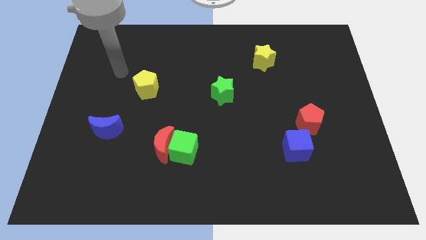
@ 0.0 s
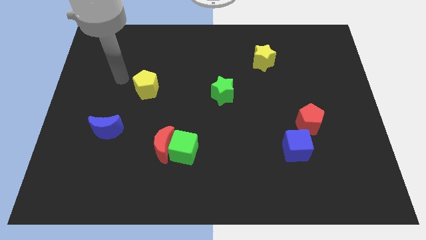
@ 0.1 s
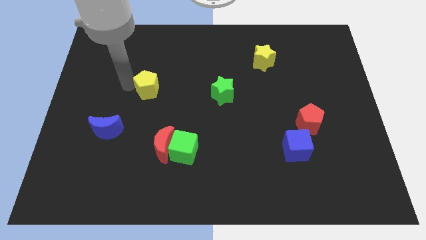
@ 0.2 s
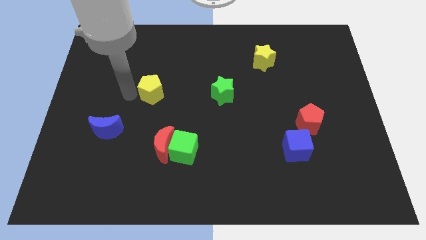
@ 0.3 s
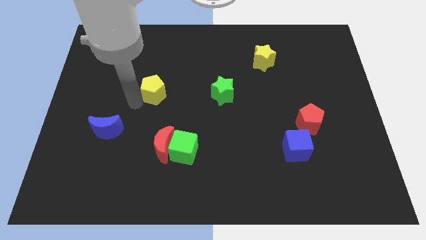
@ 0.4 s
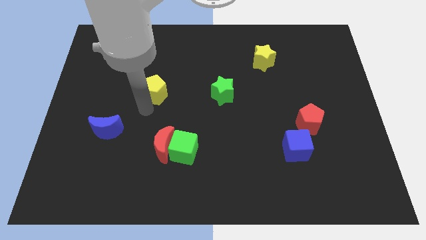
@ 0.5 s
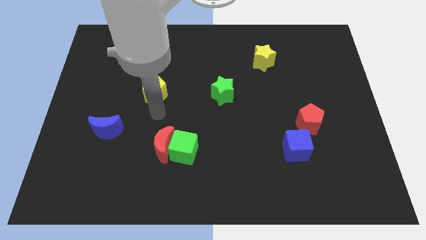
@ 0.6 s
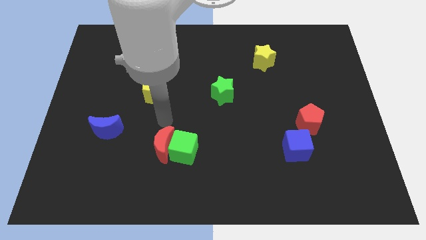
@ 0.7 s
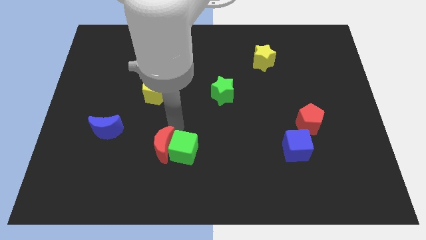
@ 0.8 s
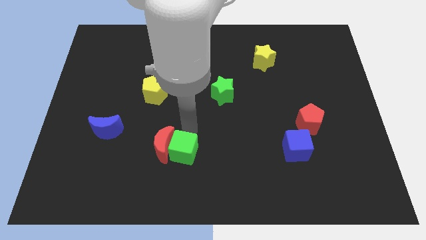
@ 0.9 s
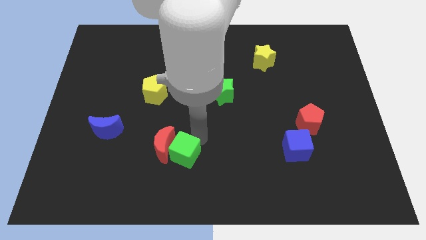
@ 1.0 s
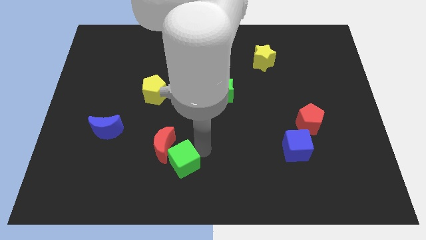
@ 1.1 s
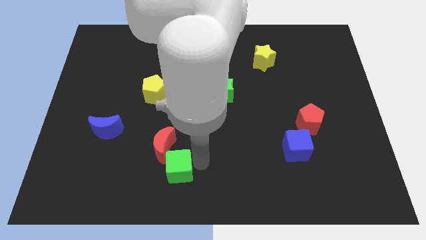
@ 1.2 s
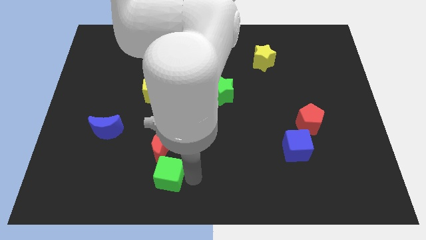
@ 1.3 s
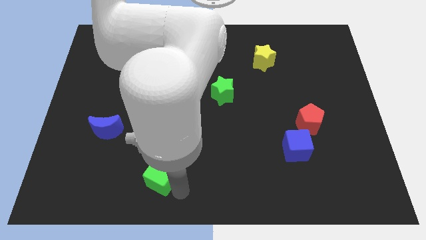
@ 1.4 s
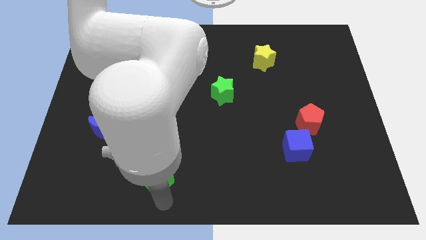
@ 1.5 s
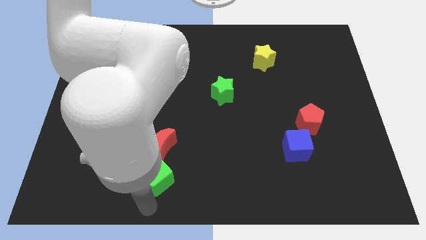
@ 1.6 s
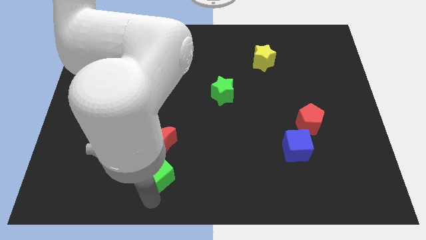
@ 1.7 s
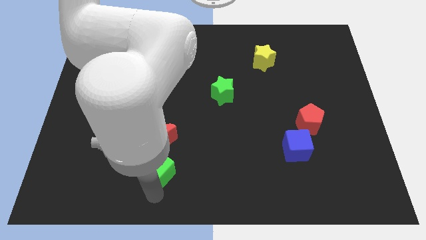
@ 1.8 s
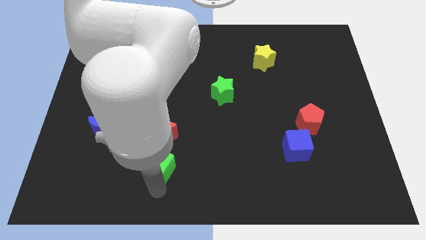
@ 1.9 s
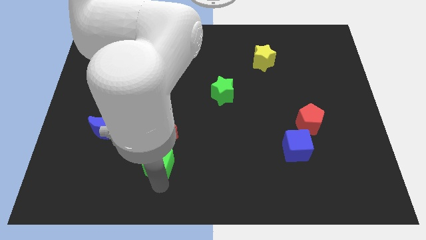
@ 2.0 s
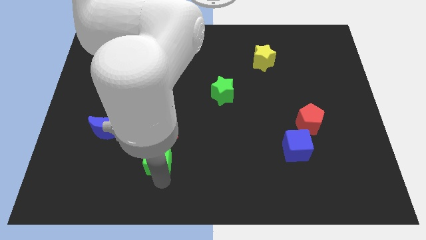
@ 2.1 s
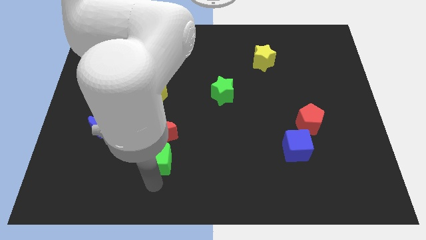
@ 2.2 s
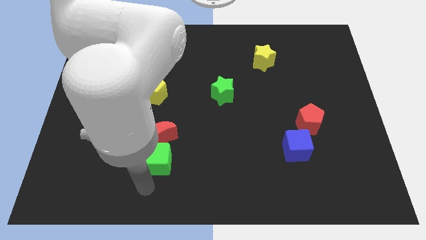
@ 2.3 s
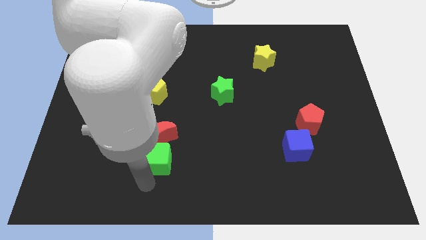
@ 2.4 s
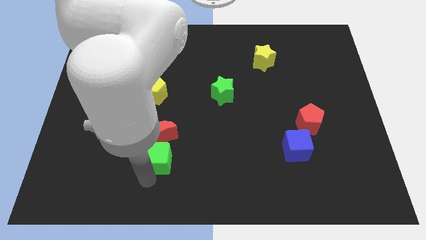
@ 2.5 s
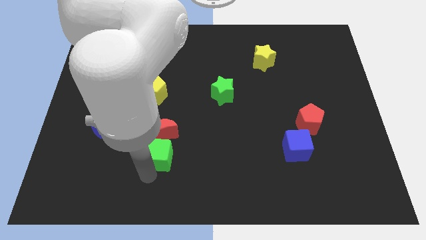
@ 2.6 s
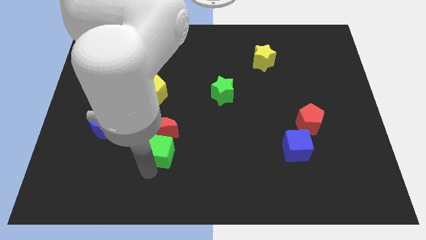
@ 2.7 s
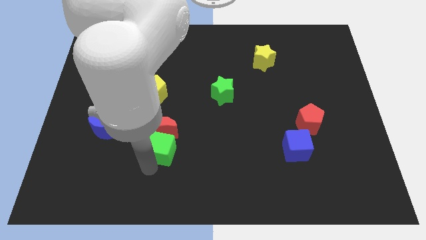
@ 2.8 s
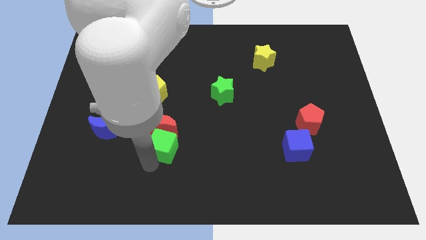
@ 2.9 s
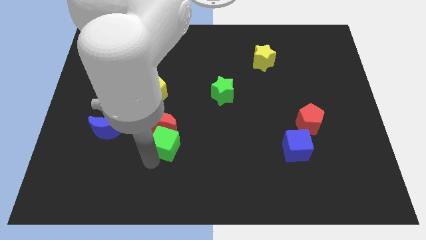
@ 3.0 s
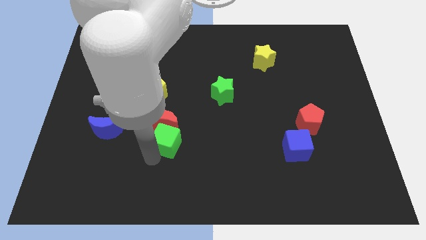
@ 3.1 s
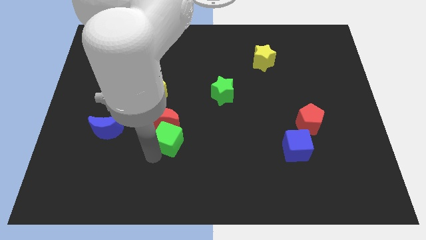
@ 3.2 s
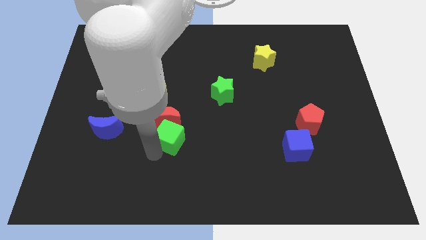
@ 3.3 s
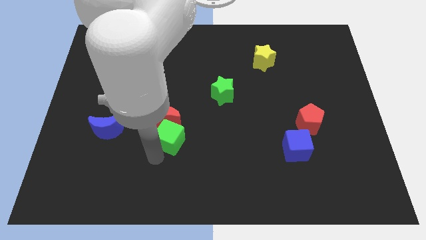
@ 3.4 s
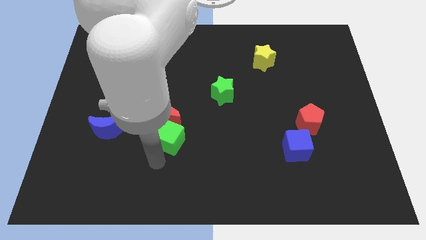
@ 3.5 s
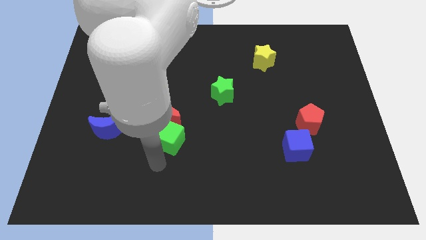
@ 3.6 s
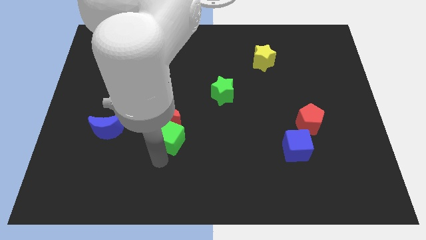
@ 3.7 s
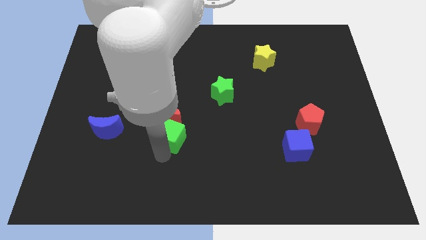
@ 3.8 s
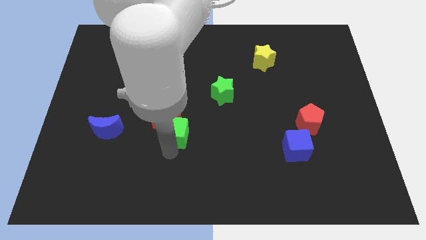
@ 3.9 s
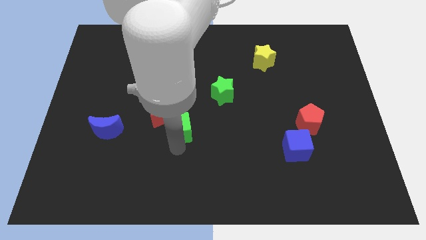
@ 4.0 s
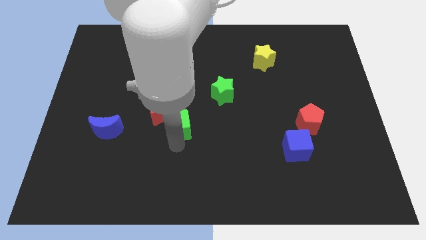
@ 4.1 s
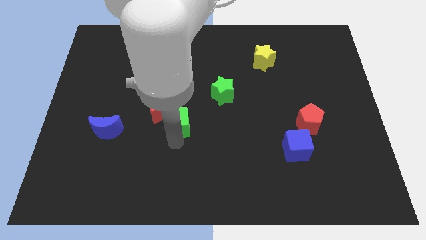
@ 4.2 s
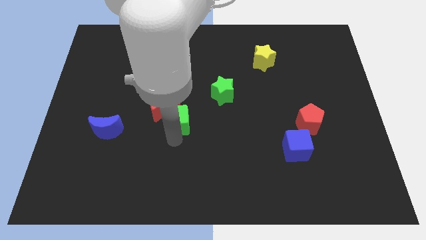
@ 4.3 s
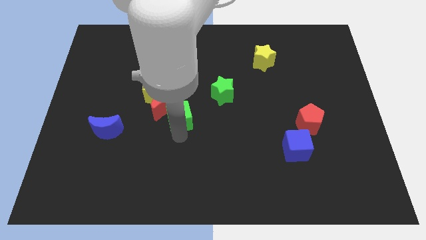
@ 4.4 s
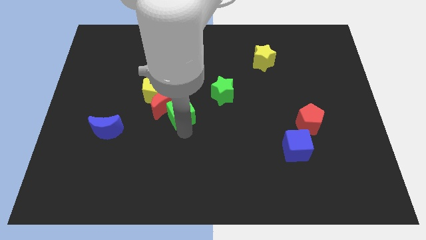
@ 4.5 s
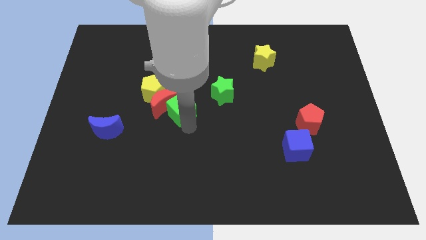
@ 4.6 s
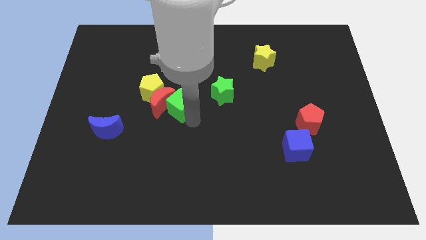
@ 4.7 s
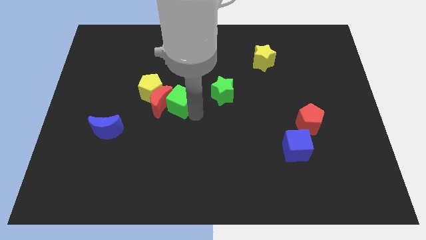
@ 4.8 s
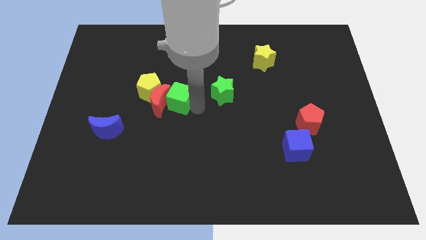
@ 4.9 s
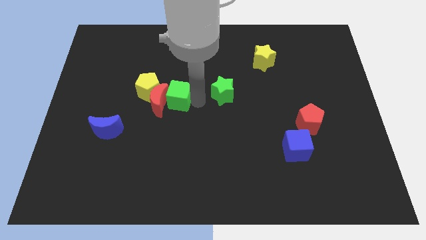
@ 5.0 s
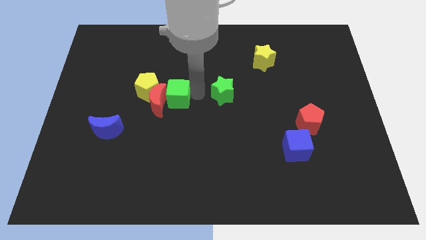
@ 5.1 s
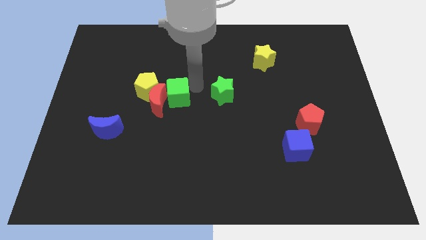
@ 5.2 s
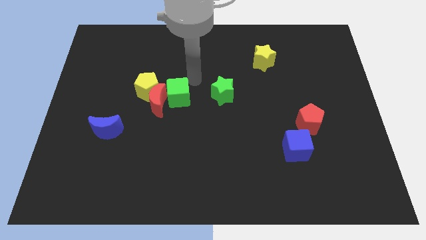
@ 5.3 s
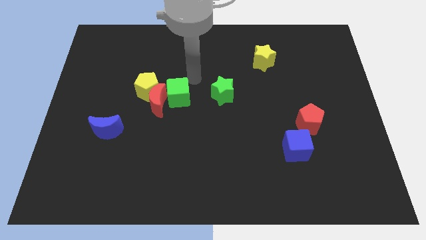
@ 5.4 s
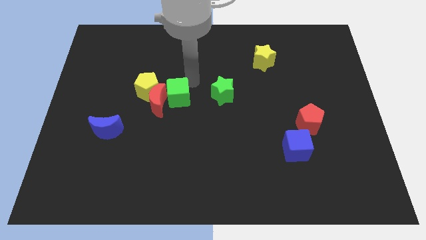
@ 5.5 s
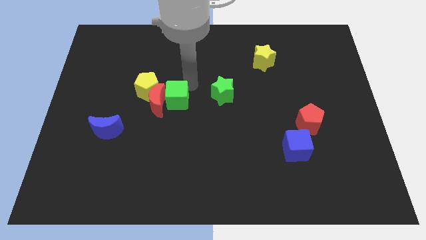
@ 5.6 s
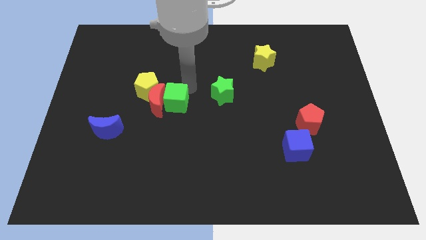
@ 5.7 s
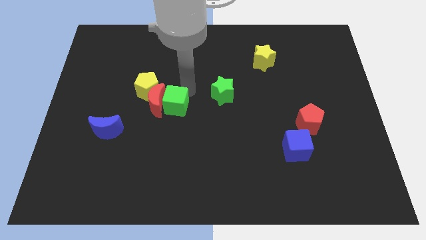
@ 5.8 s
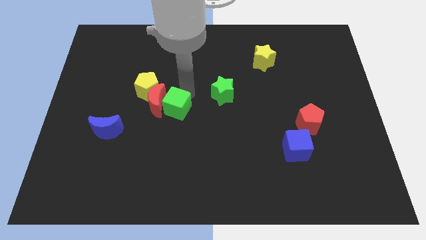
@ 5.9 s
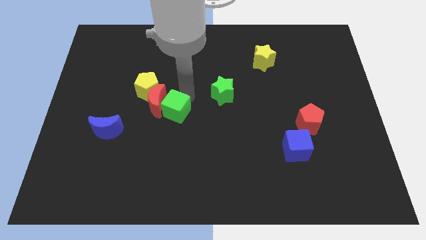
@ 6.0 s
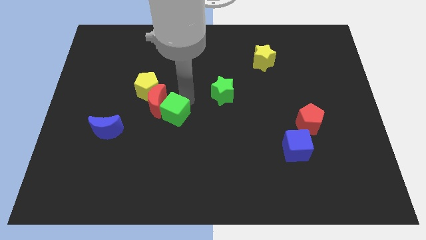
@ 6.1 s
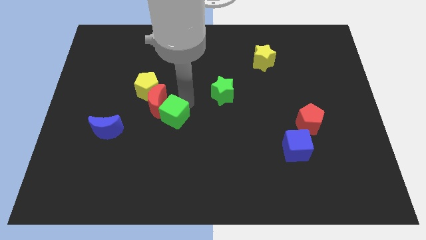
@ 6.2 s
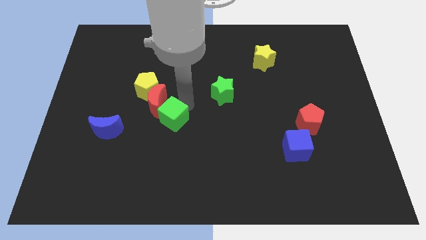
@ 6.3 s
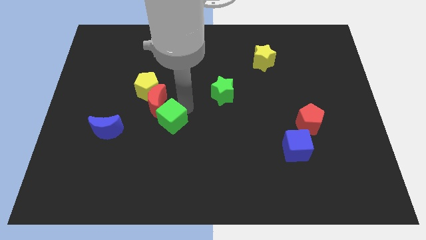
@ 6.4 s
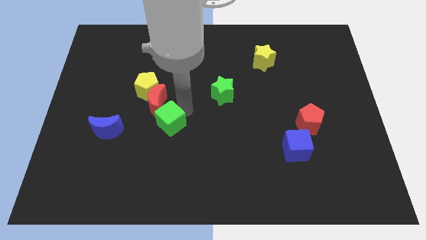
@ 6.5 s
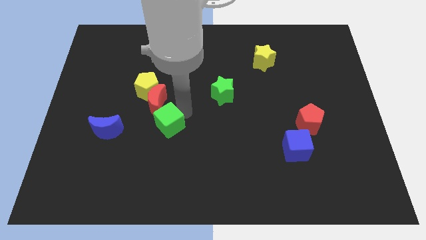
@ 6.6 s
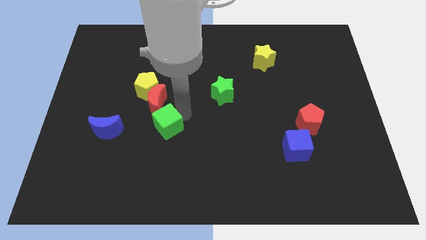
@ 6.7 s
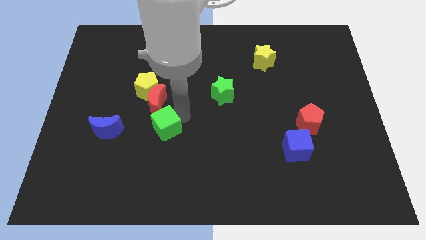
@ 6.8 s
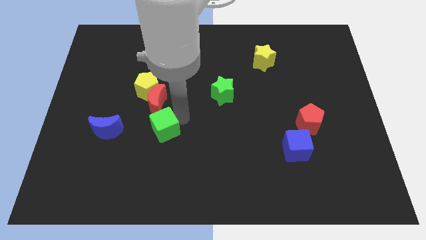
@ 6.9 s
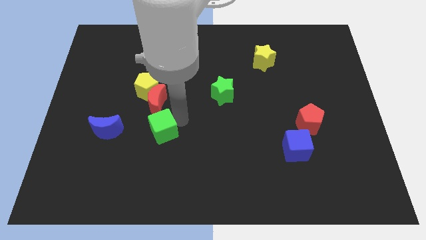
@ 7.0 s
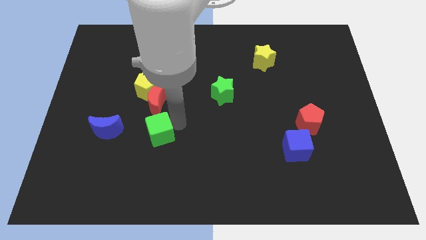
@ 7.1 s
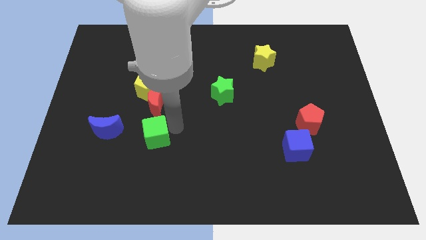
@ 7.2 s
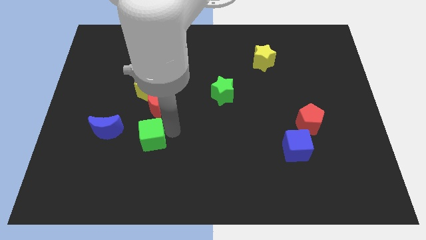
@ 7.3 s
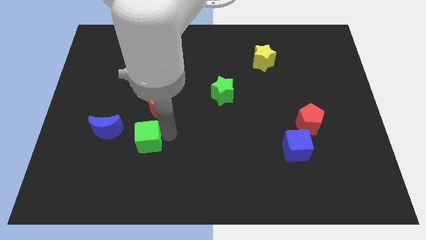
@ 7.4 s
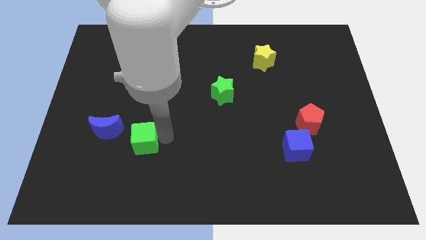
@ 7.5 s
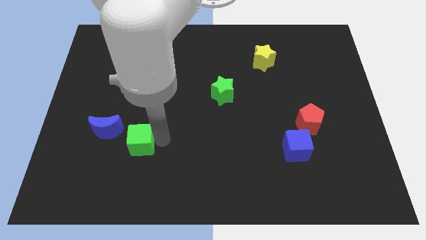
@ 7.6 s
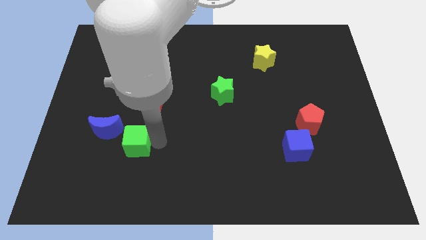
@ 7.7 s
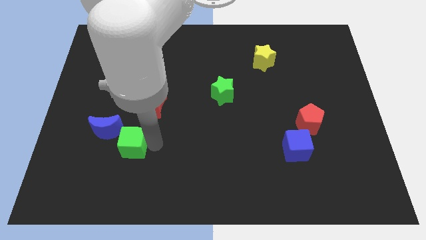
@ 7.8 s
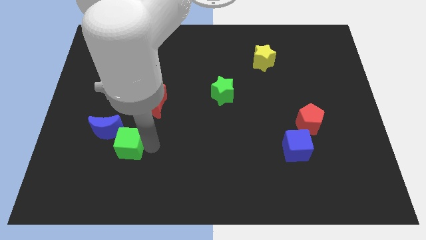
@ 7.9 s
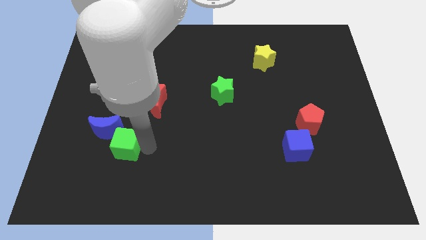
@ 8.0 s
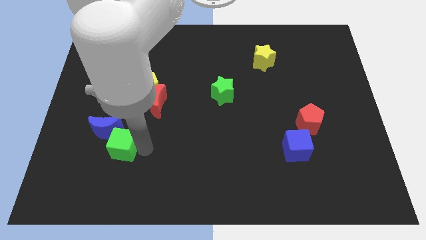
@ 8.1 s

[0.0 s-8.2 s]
move the green cube next to the blue moon
